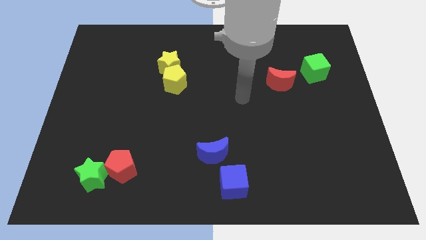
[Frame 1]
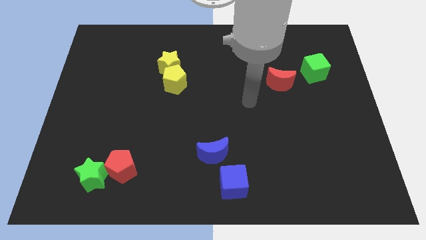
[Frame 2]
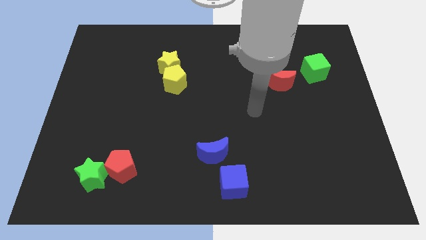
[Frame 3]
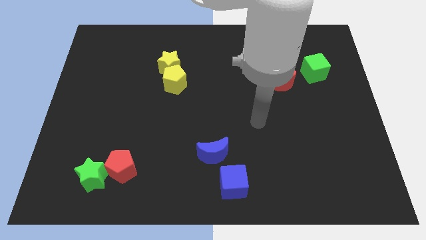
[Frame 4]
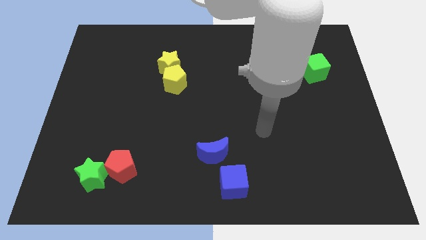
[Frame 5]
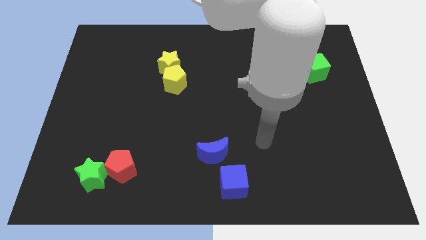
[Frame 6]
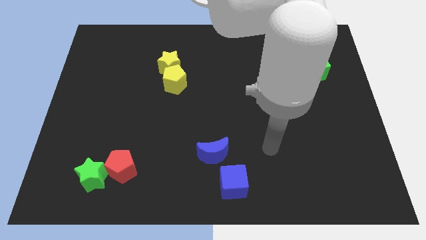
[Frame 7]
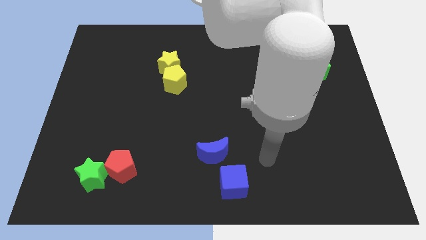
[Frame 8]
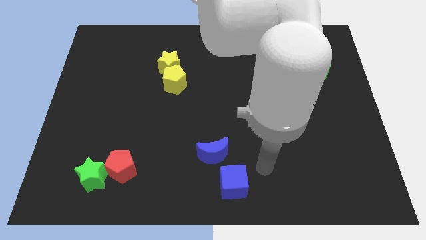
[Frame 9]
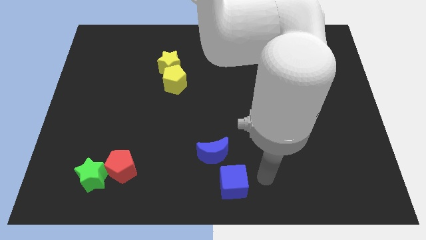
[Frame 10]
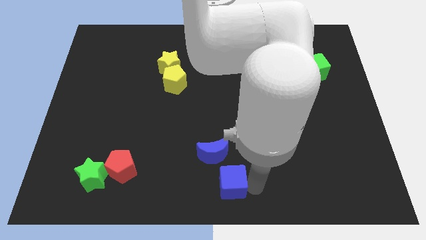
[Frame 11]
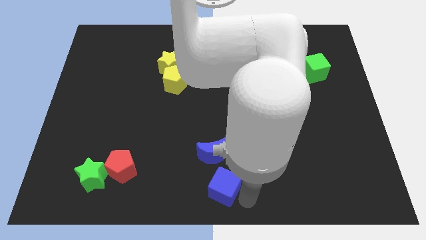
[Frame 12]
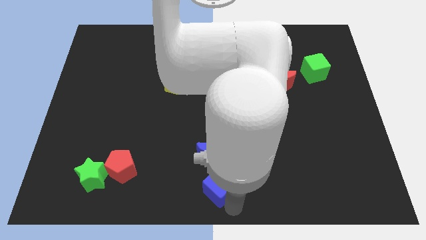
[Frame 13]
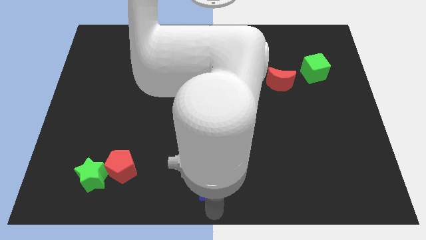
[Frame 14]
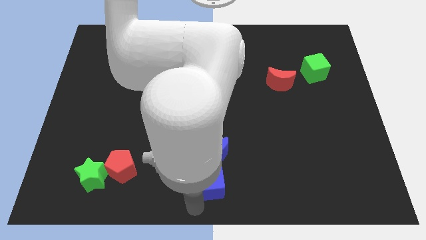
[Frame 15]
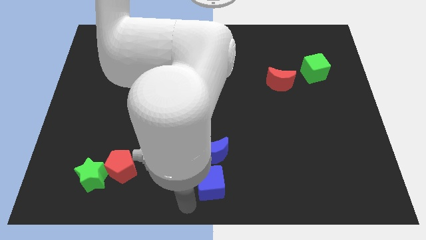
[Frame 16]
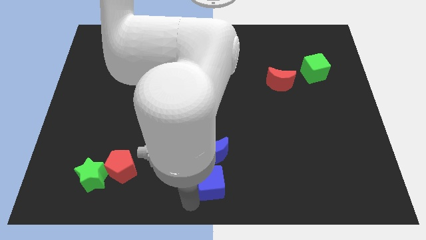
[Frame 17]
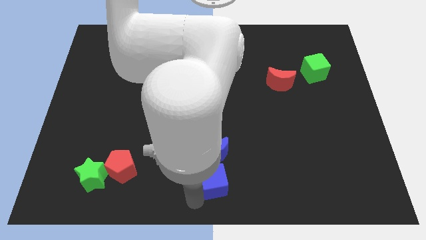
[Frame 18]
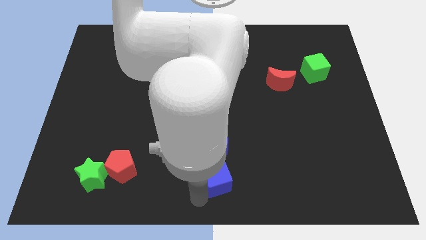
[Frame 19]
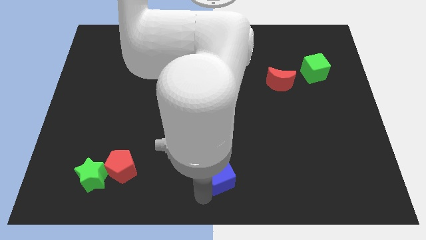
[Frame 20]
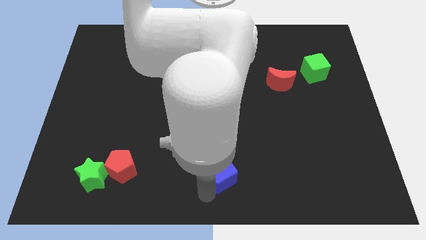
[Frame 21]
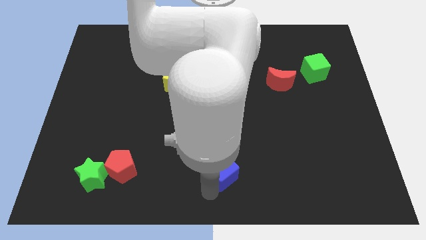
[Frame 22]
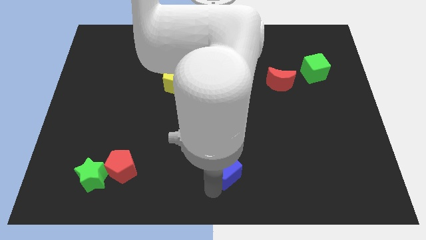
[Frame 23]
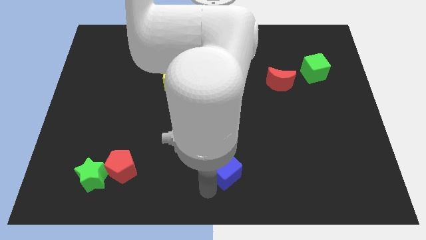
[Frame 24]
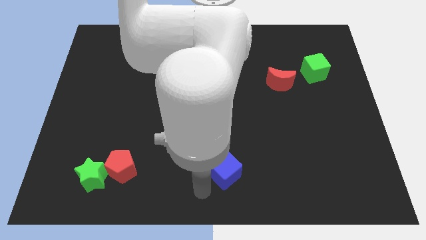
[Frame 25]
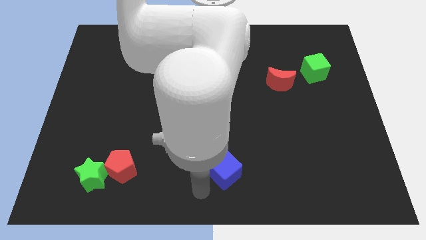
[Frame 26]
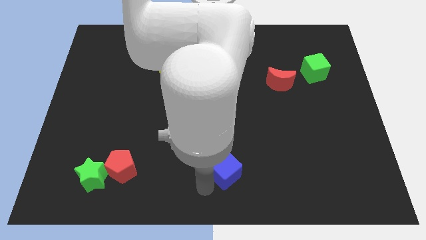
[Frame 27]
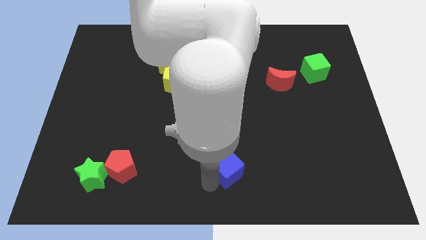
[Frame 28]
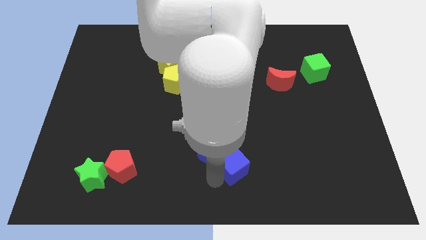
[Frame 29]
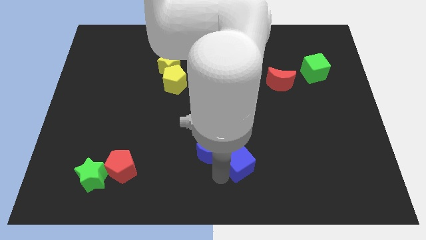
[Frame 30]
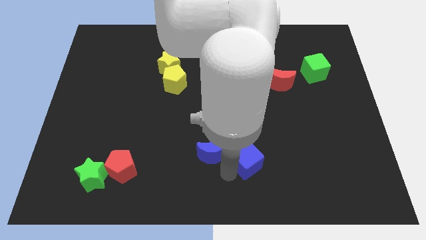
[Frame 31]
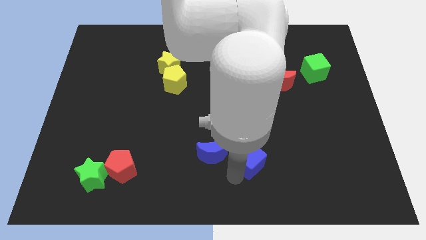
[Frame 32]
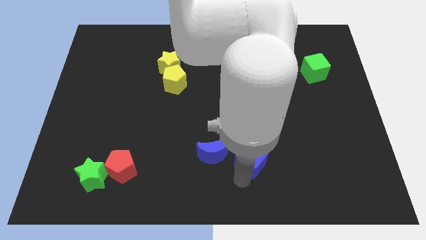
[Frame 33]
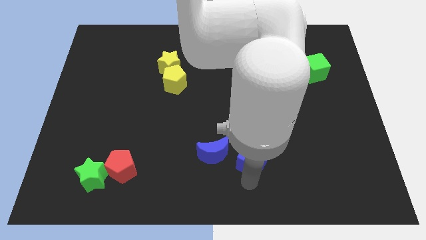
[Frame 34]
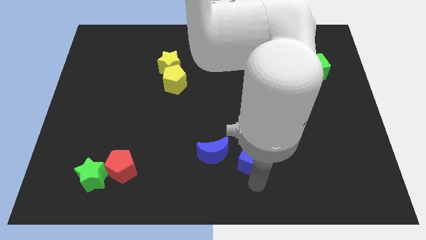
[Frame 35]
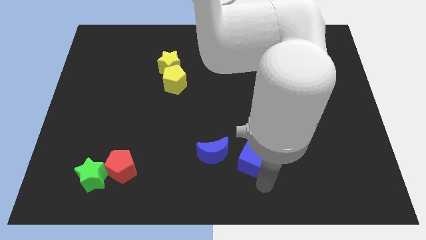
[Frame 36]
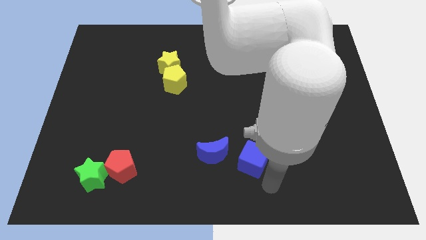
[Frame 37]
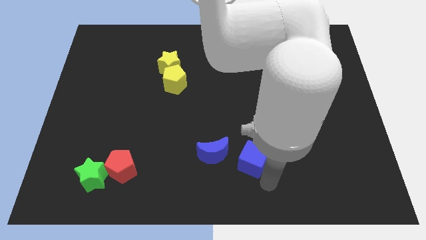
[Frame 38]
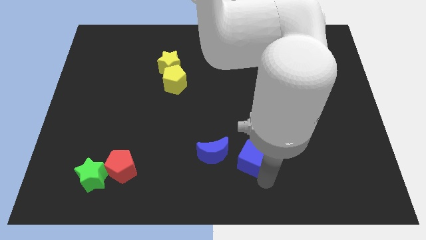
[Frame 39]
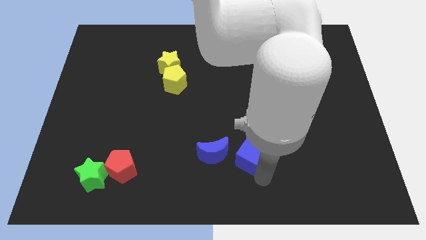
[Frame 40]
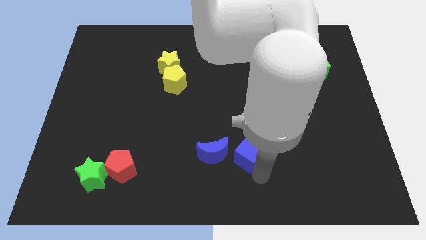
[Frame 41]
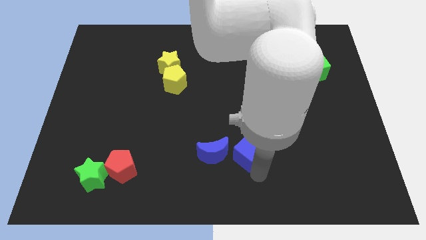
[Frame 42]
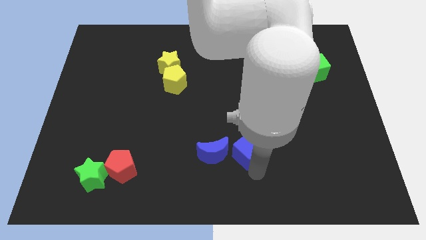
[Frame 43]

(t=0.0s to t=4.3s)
slightly slide the blue cube upwards

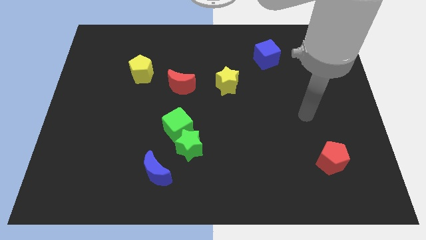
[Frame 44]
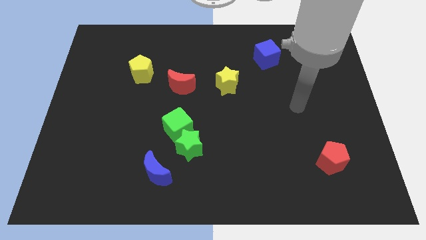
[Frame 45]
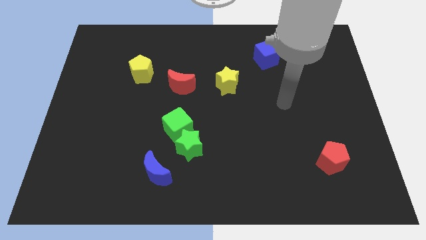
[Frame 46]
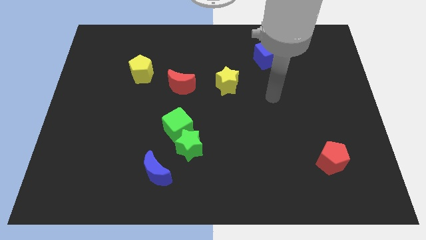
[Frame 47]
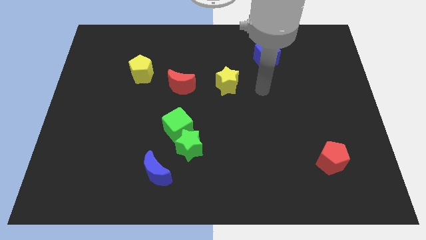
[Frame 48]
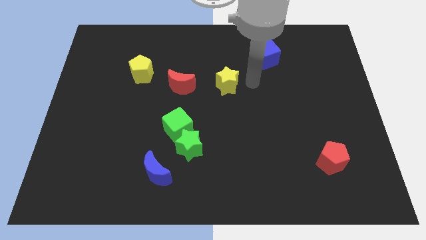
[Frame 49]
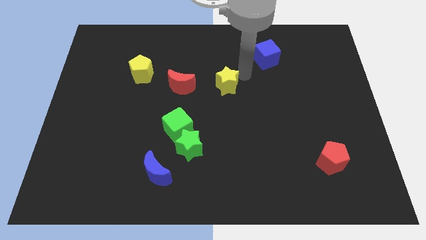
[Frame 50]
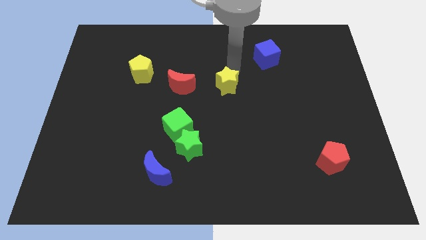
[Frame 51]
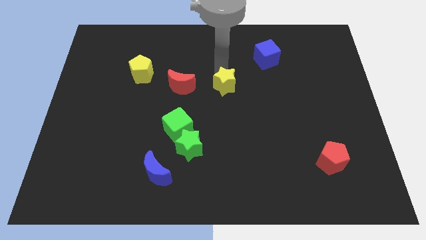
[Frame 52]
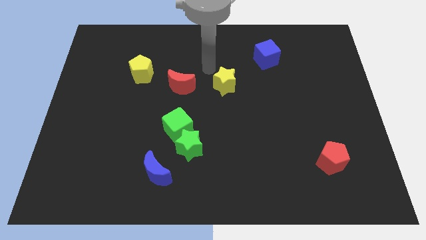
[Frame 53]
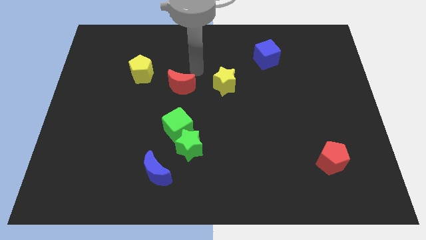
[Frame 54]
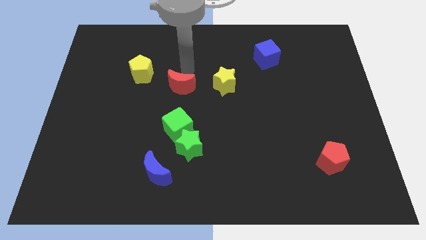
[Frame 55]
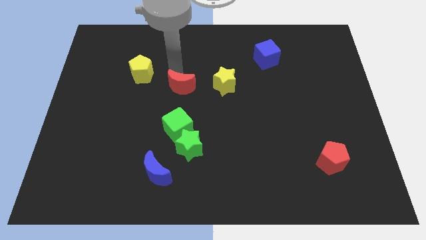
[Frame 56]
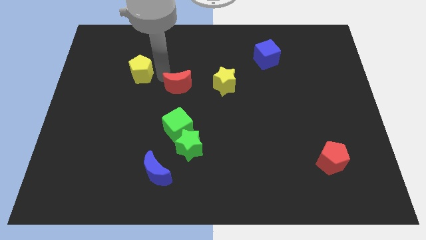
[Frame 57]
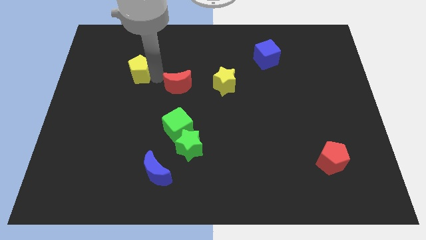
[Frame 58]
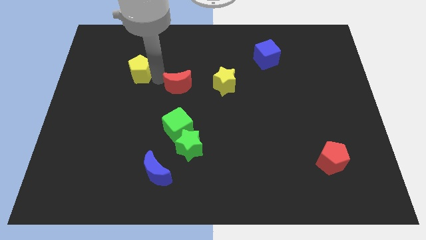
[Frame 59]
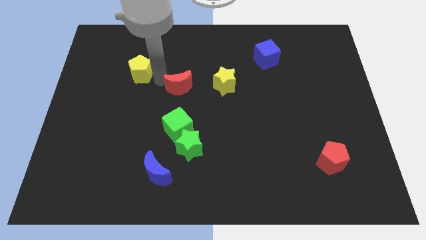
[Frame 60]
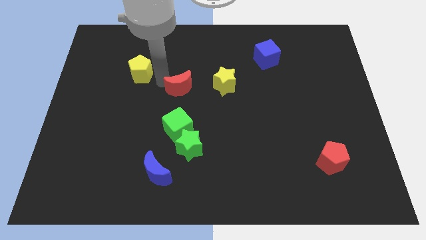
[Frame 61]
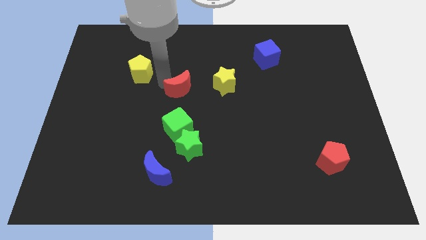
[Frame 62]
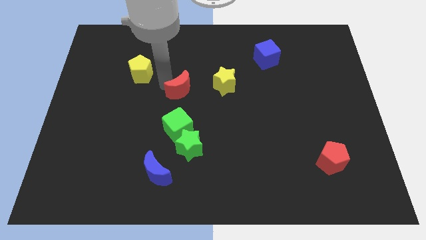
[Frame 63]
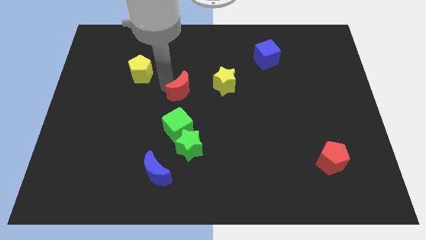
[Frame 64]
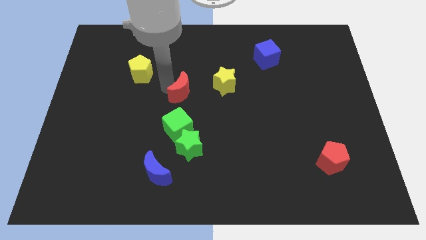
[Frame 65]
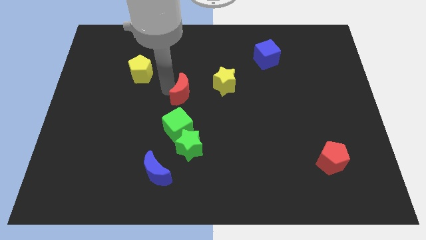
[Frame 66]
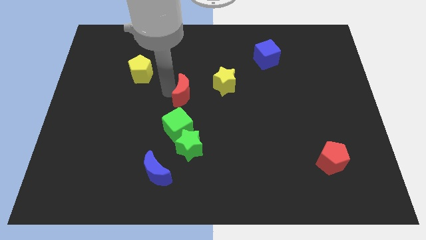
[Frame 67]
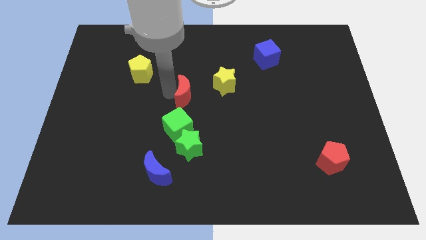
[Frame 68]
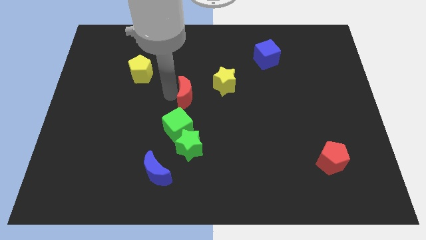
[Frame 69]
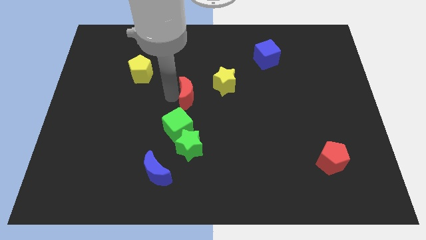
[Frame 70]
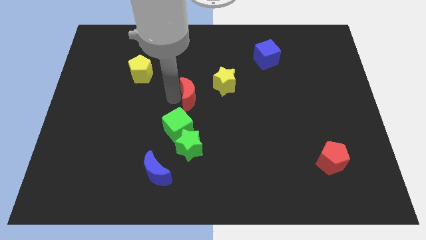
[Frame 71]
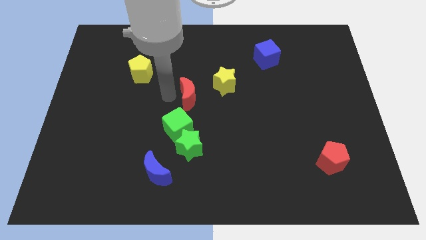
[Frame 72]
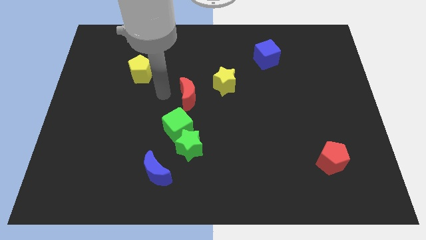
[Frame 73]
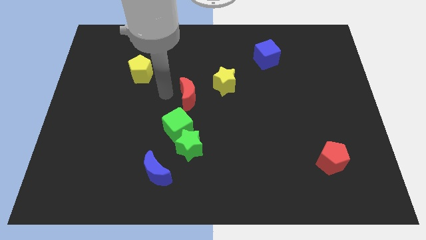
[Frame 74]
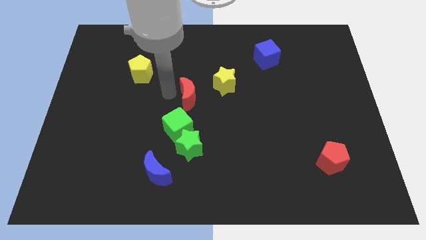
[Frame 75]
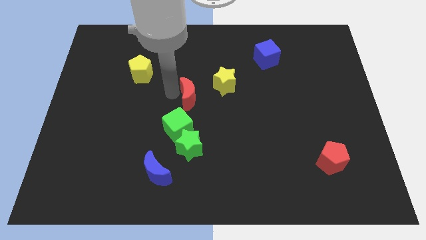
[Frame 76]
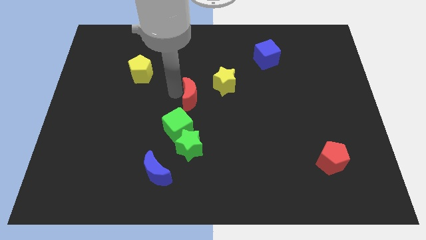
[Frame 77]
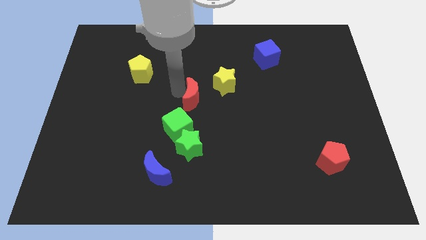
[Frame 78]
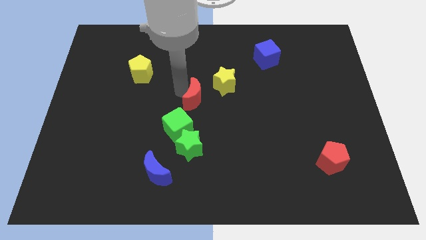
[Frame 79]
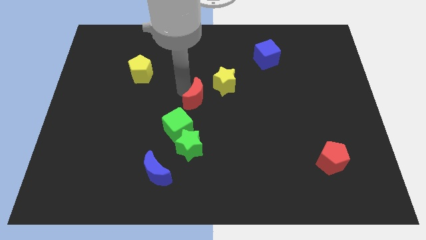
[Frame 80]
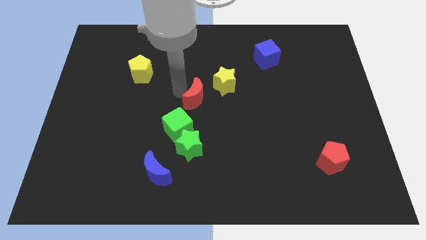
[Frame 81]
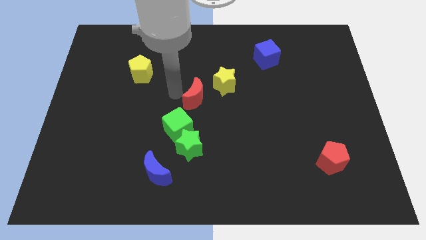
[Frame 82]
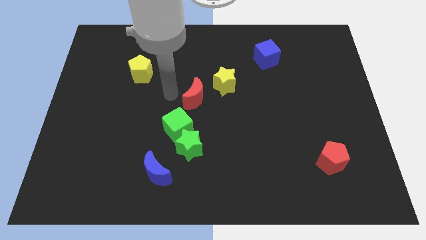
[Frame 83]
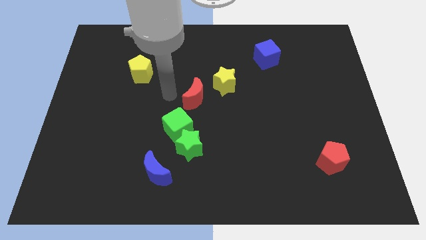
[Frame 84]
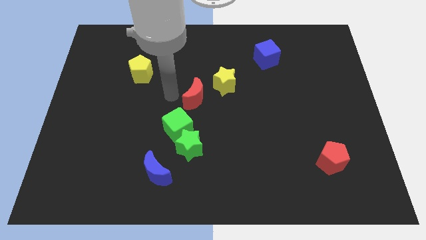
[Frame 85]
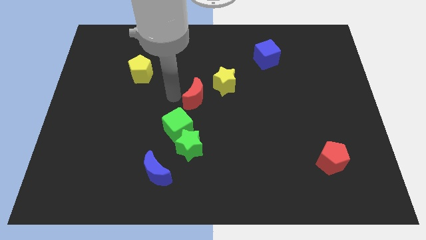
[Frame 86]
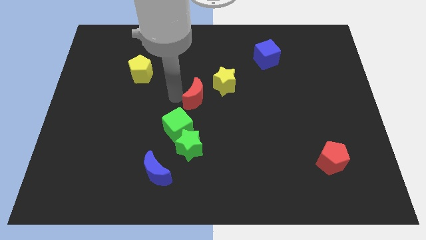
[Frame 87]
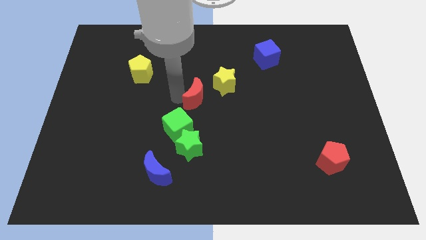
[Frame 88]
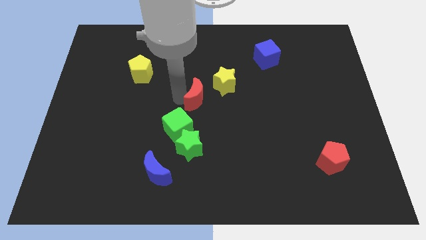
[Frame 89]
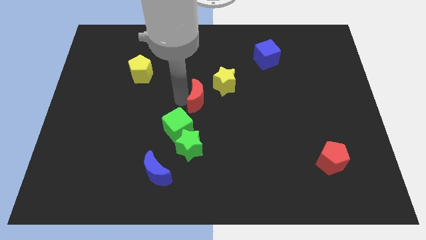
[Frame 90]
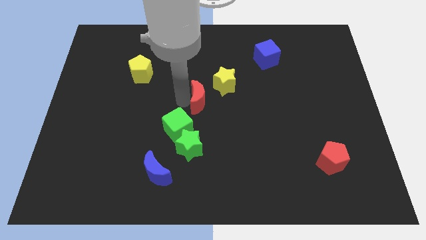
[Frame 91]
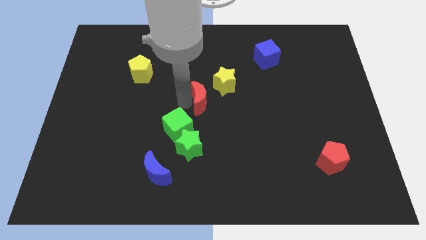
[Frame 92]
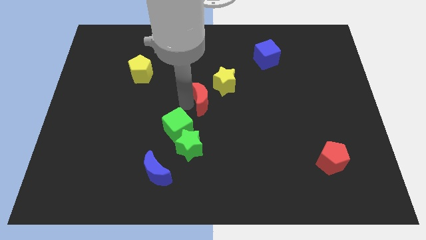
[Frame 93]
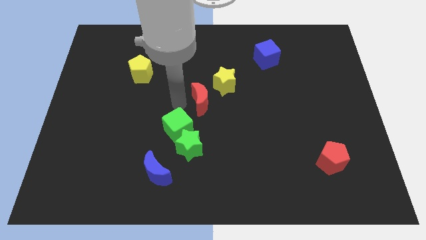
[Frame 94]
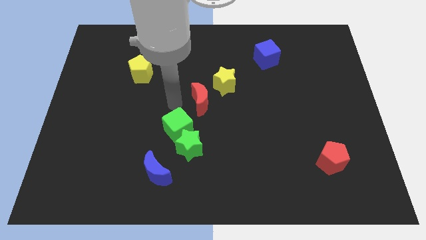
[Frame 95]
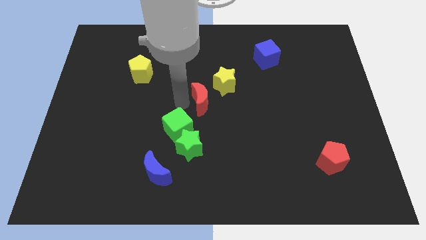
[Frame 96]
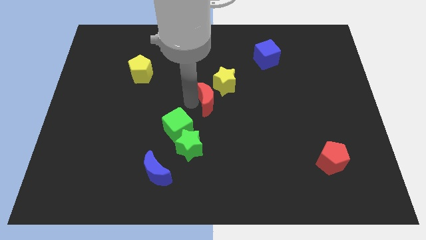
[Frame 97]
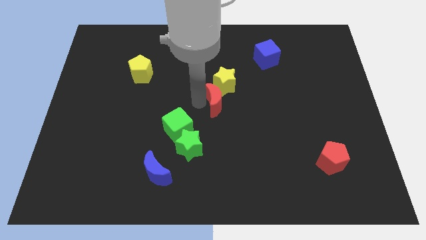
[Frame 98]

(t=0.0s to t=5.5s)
move the red moon slightly to the right
